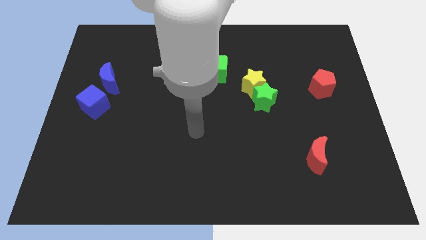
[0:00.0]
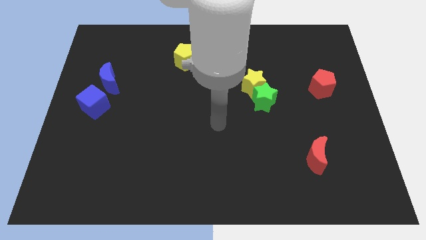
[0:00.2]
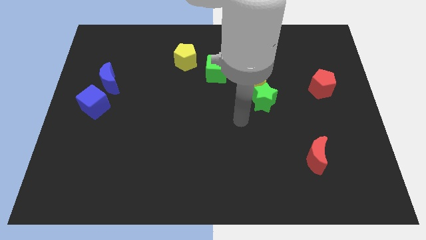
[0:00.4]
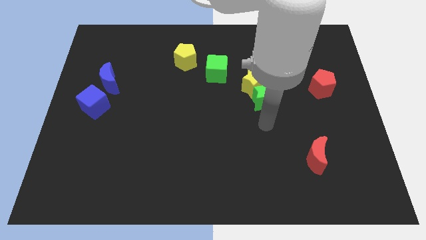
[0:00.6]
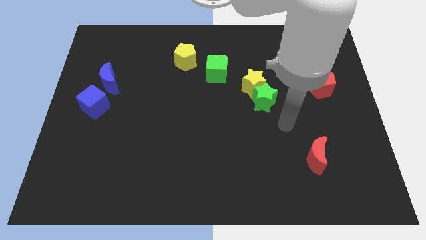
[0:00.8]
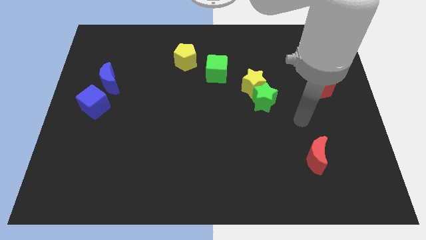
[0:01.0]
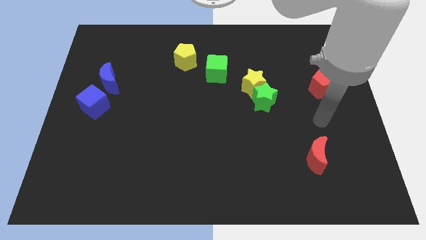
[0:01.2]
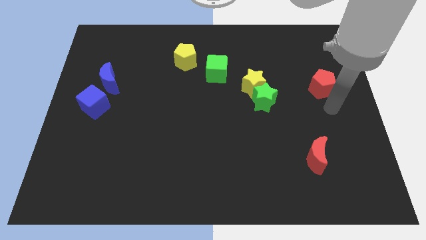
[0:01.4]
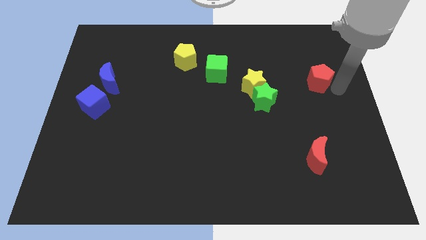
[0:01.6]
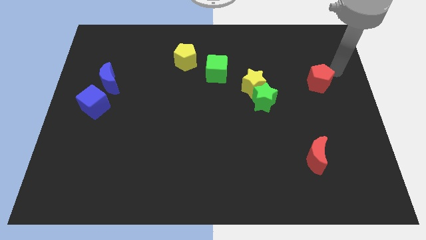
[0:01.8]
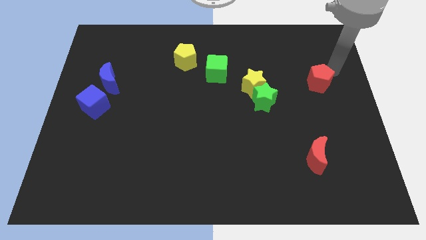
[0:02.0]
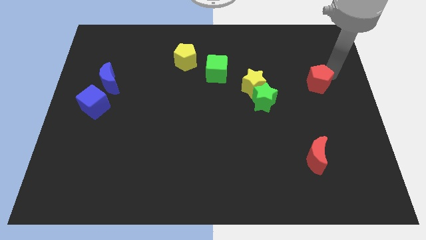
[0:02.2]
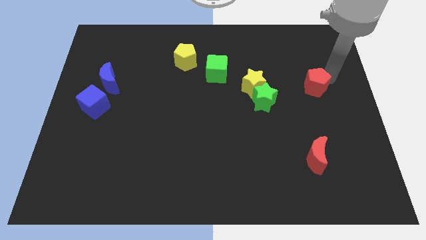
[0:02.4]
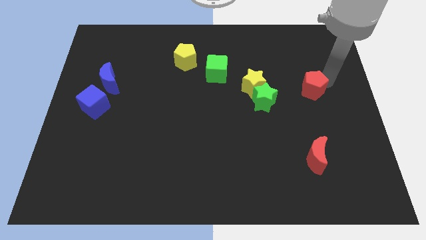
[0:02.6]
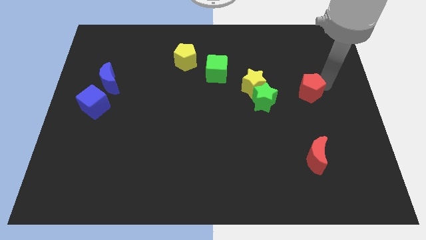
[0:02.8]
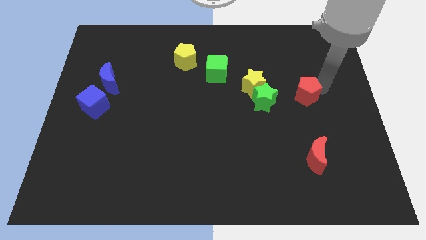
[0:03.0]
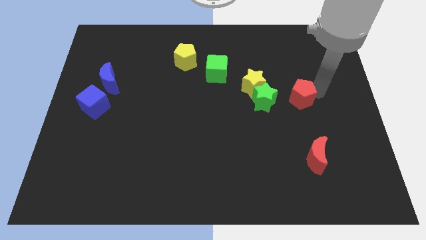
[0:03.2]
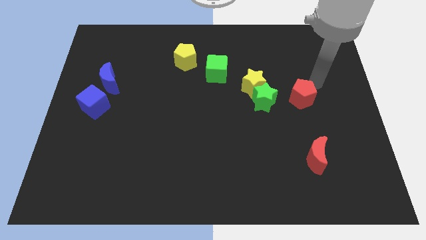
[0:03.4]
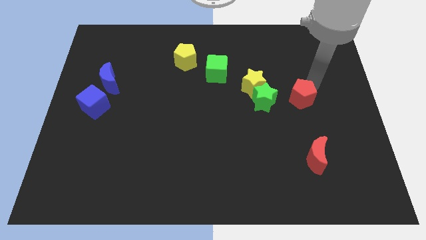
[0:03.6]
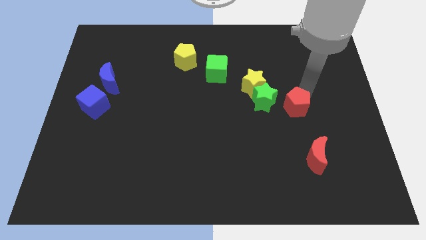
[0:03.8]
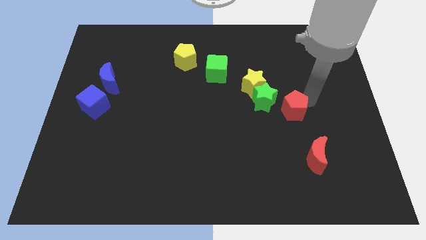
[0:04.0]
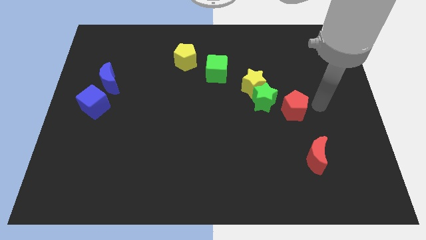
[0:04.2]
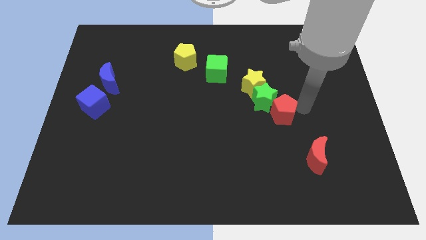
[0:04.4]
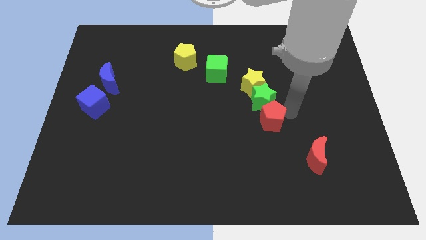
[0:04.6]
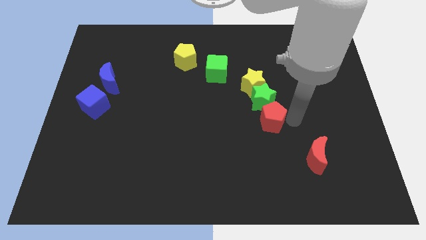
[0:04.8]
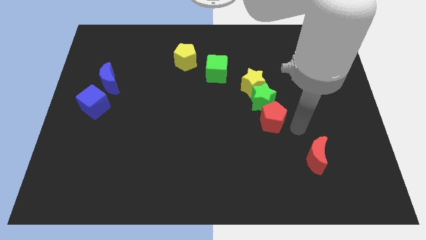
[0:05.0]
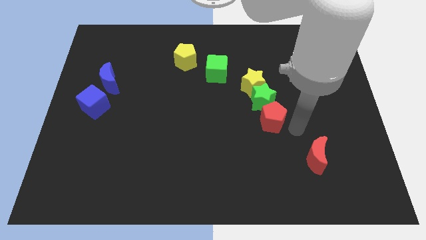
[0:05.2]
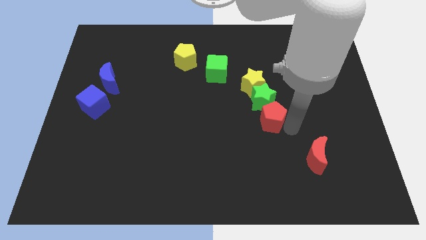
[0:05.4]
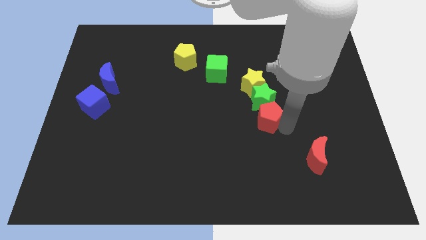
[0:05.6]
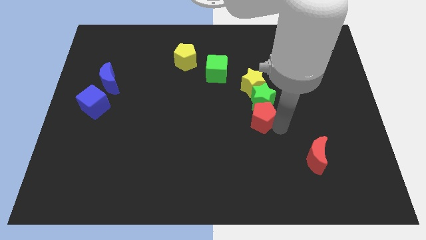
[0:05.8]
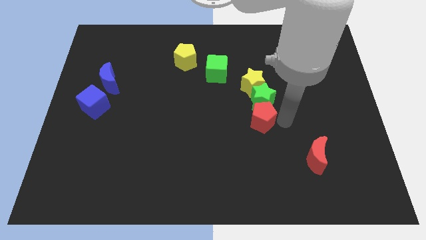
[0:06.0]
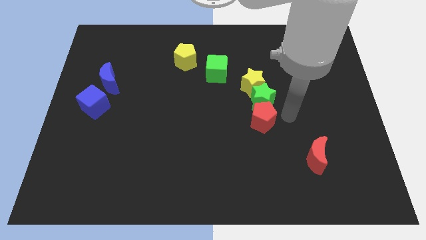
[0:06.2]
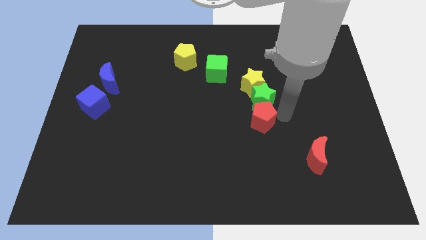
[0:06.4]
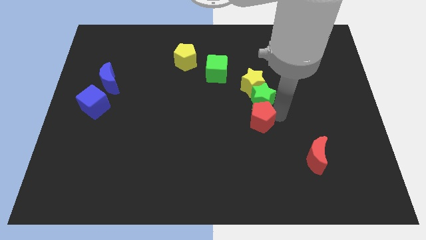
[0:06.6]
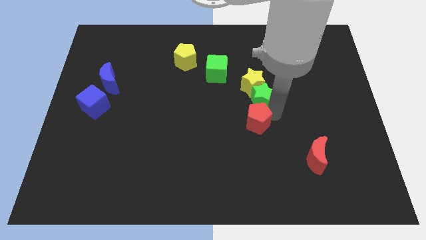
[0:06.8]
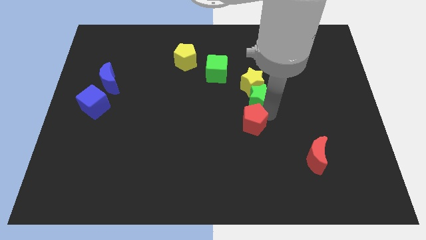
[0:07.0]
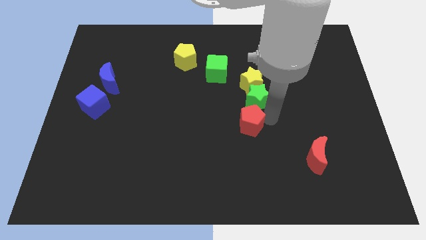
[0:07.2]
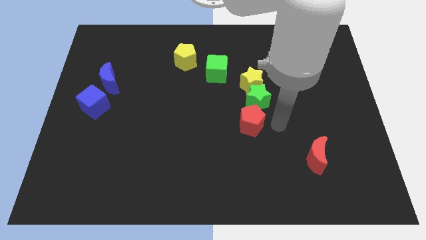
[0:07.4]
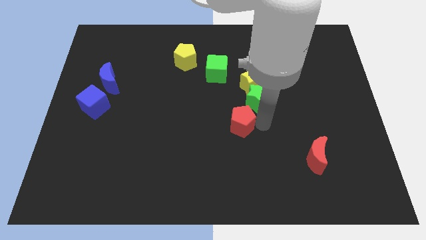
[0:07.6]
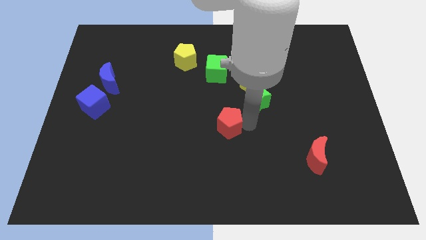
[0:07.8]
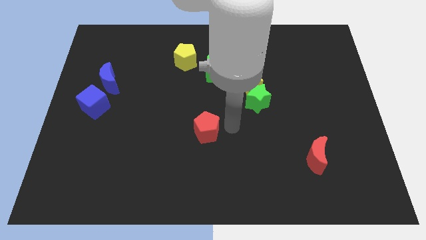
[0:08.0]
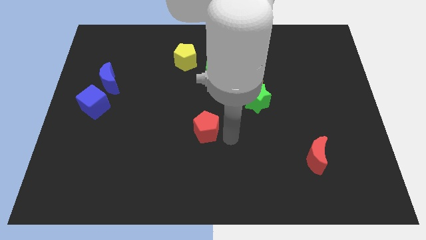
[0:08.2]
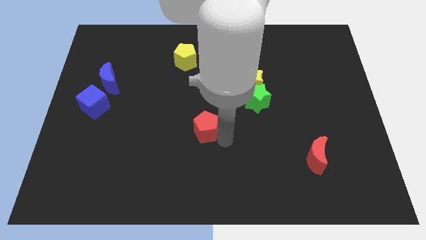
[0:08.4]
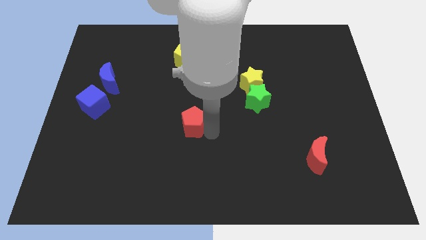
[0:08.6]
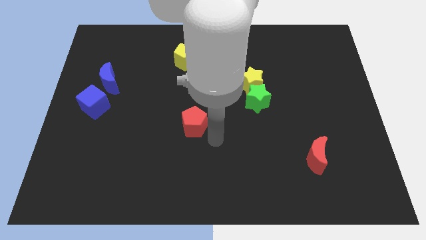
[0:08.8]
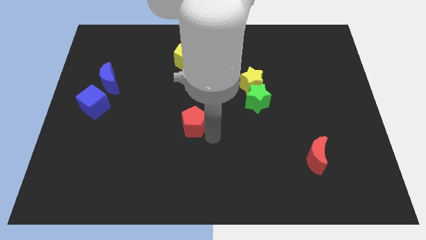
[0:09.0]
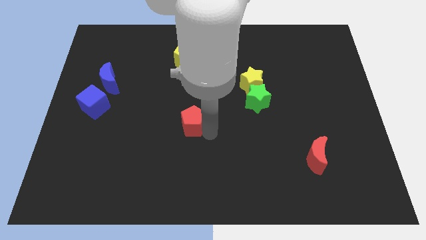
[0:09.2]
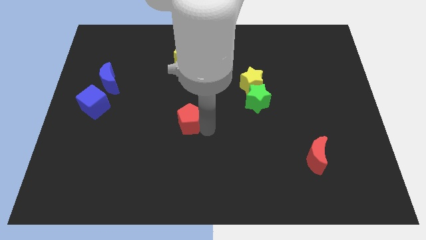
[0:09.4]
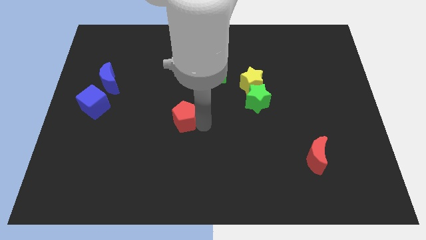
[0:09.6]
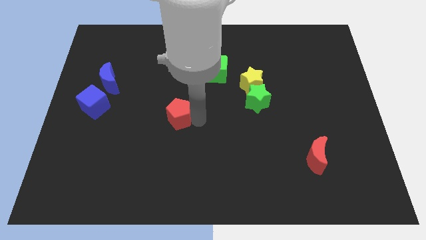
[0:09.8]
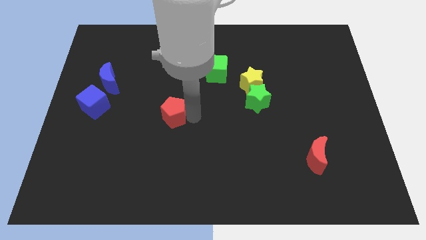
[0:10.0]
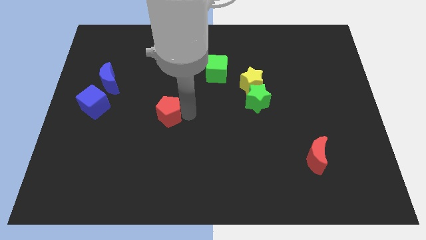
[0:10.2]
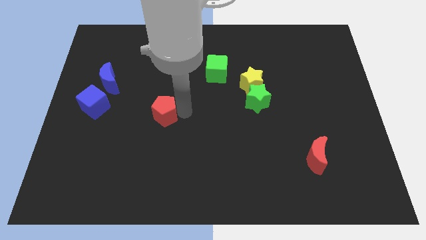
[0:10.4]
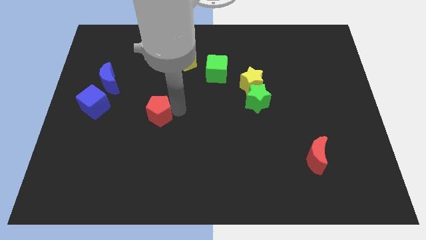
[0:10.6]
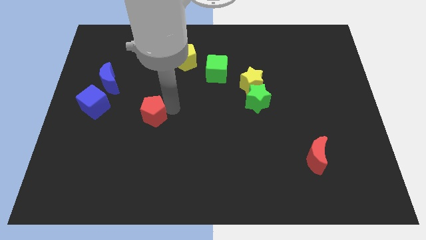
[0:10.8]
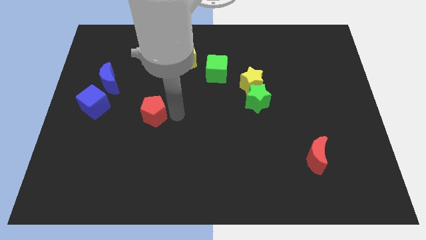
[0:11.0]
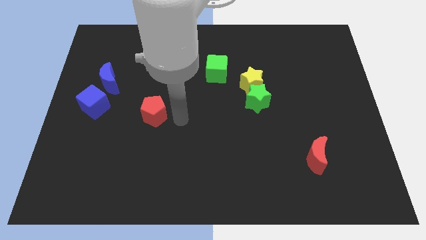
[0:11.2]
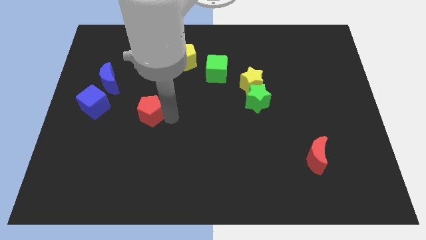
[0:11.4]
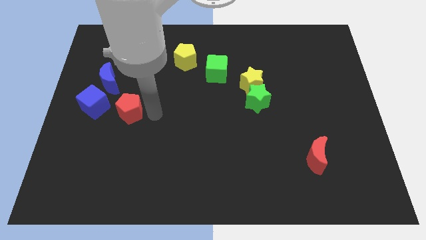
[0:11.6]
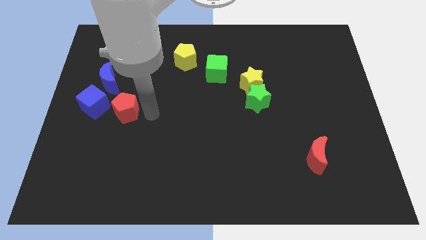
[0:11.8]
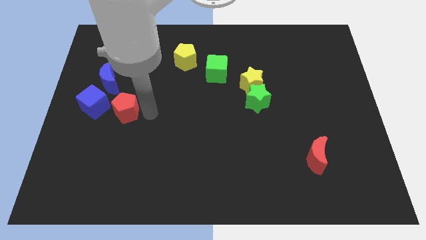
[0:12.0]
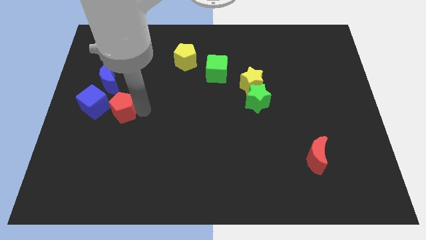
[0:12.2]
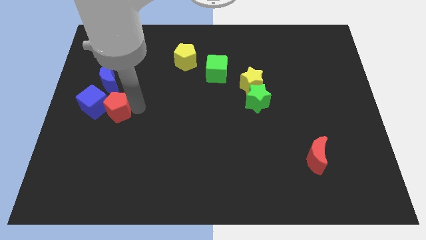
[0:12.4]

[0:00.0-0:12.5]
push the red pentagon towards the blue cube

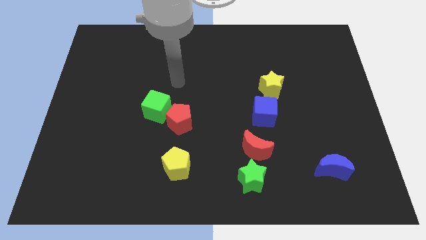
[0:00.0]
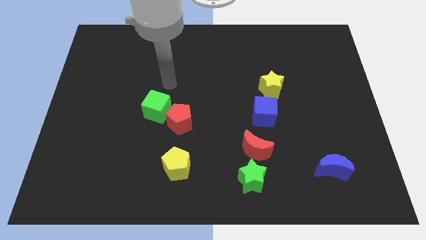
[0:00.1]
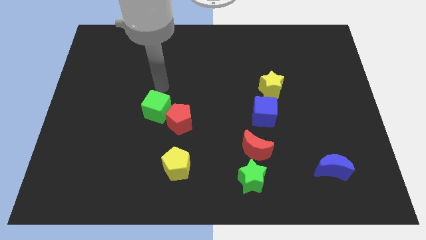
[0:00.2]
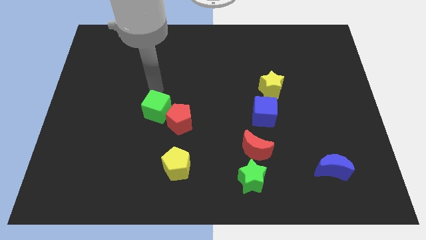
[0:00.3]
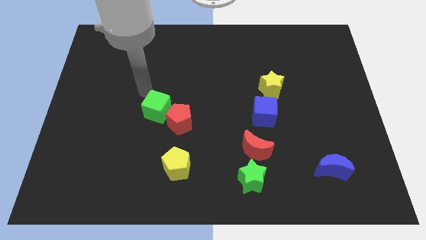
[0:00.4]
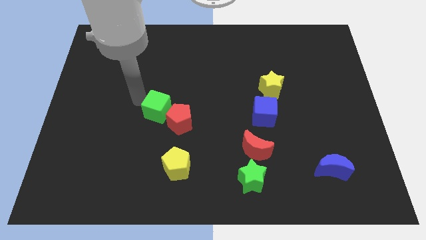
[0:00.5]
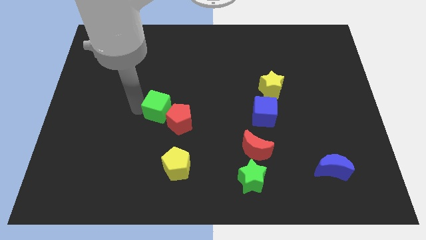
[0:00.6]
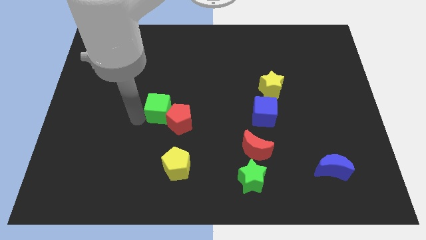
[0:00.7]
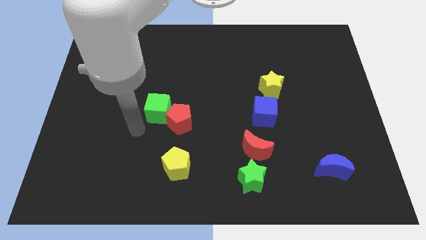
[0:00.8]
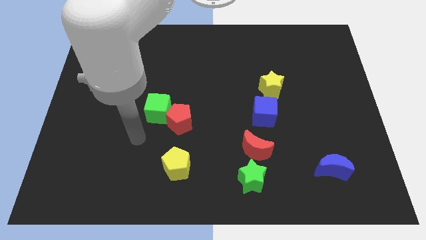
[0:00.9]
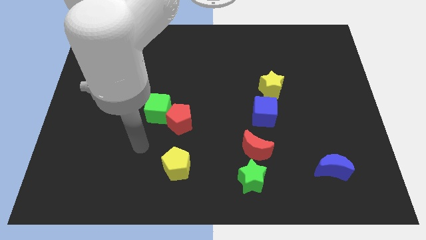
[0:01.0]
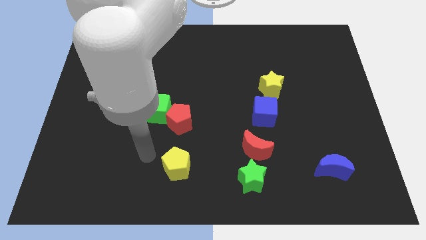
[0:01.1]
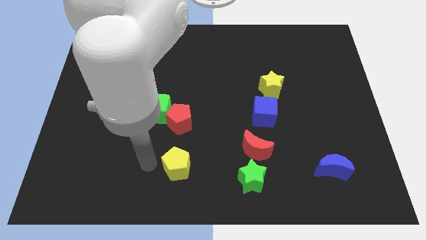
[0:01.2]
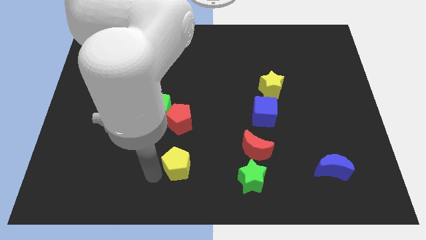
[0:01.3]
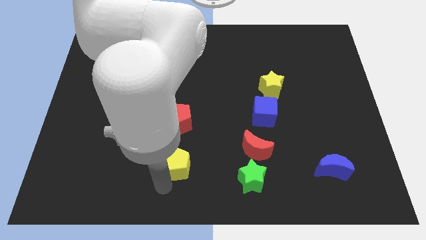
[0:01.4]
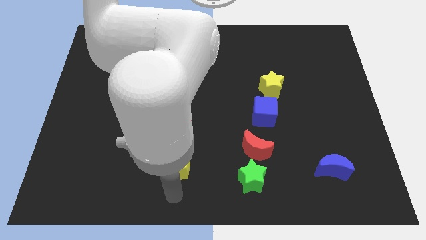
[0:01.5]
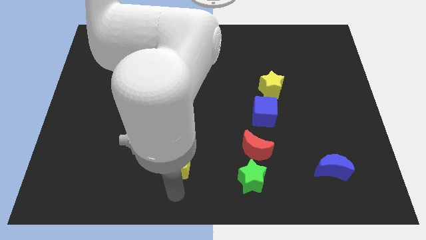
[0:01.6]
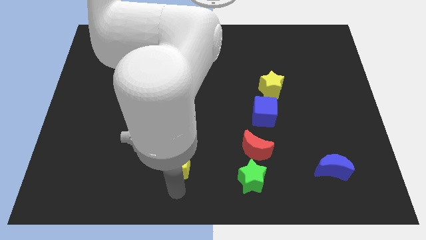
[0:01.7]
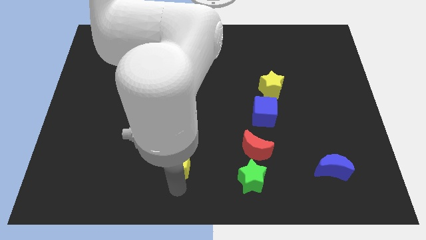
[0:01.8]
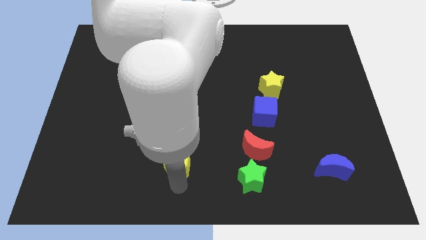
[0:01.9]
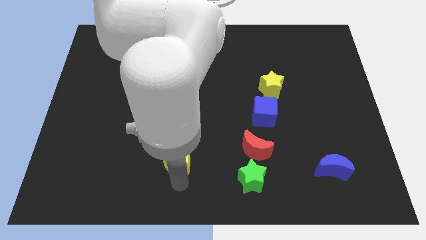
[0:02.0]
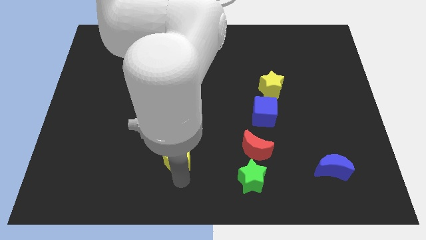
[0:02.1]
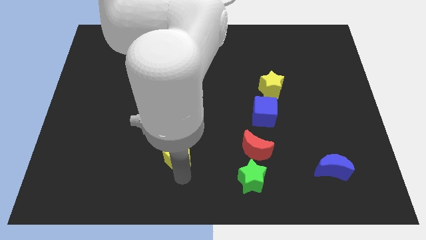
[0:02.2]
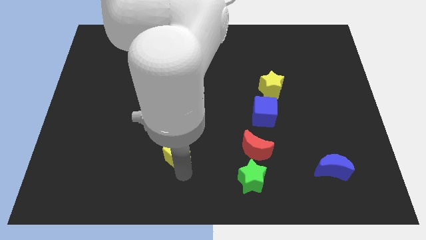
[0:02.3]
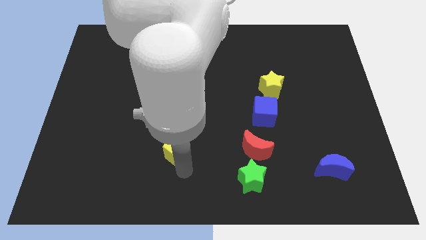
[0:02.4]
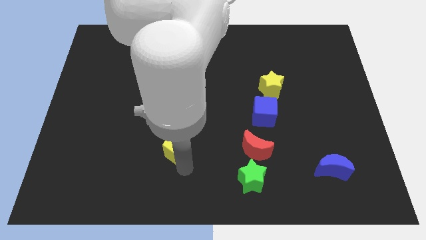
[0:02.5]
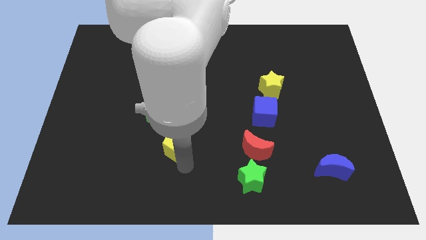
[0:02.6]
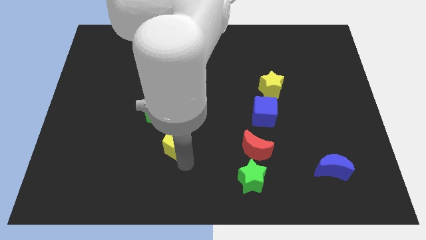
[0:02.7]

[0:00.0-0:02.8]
slide the yellow pentagon close to the red pentagon
